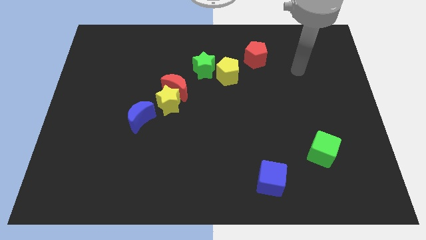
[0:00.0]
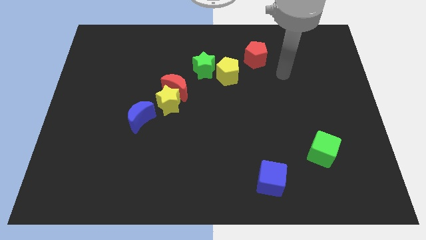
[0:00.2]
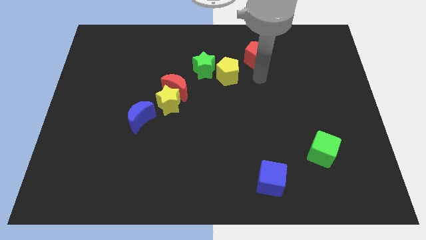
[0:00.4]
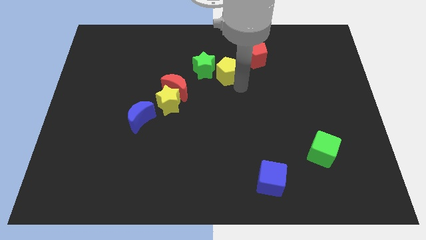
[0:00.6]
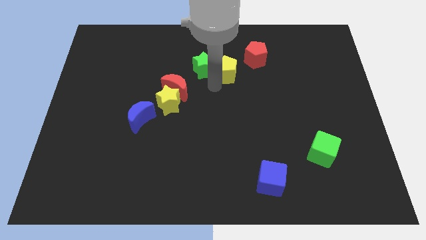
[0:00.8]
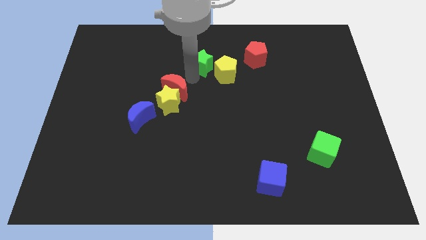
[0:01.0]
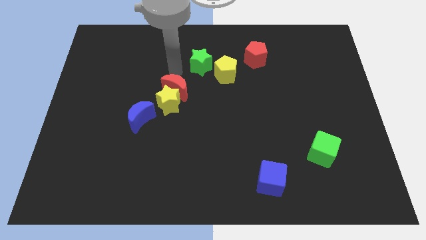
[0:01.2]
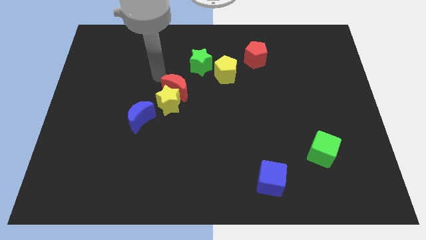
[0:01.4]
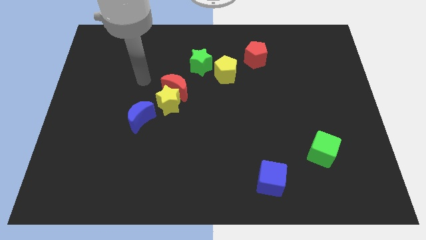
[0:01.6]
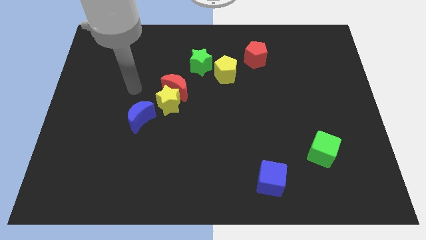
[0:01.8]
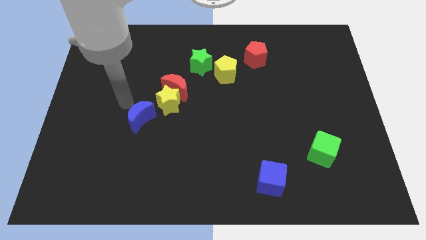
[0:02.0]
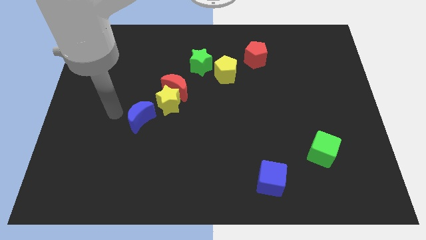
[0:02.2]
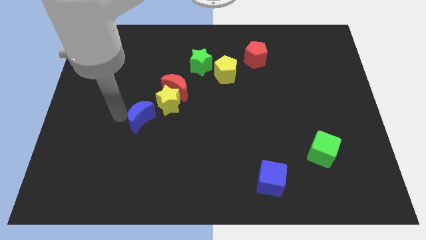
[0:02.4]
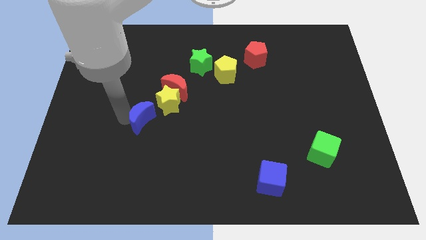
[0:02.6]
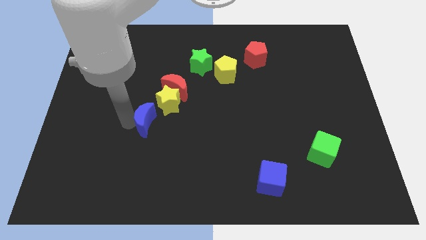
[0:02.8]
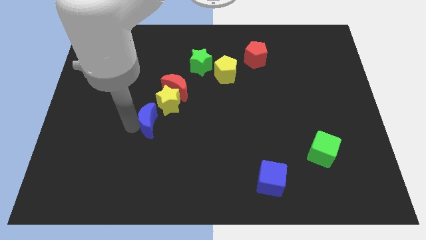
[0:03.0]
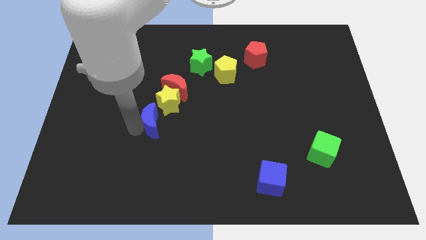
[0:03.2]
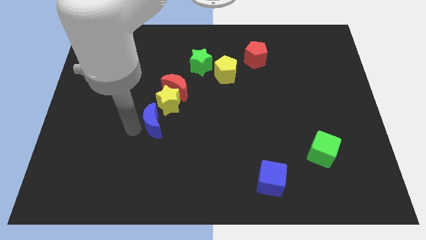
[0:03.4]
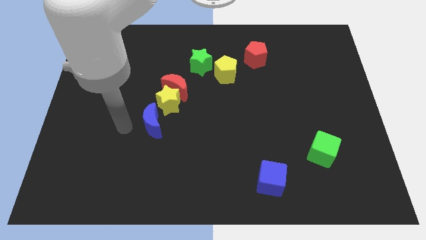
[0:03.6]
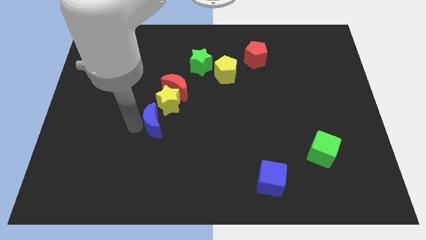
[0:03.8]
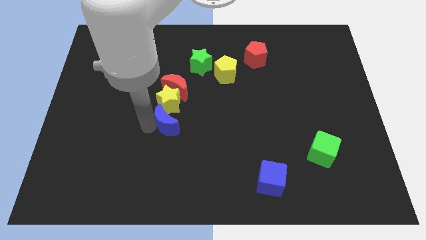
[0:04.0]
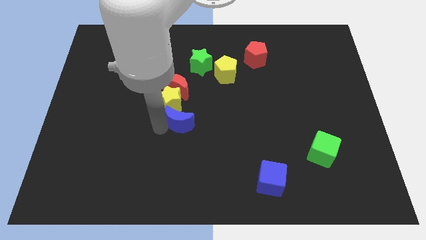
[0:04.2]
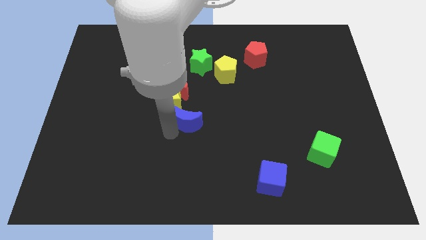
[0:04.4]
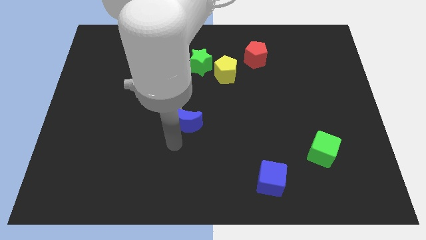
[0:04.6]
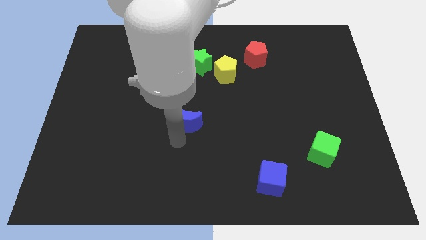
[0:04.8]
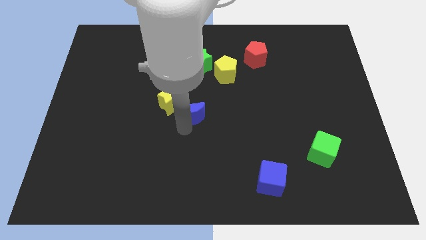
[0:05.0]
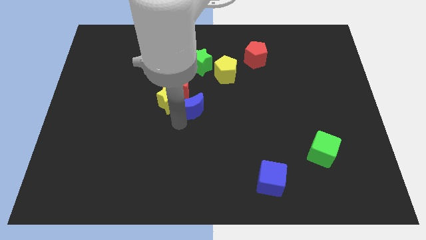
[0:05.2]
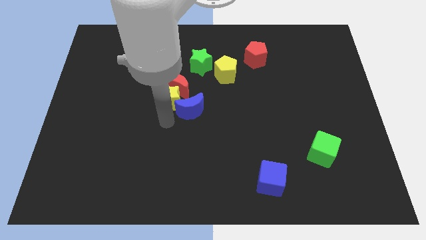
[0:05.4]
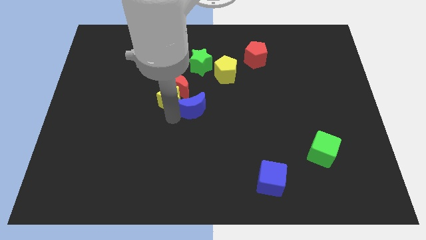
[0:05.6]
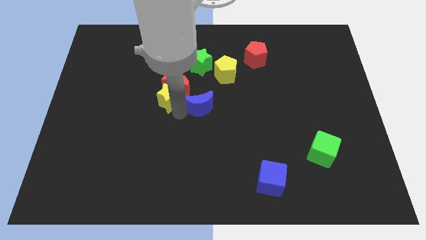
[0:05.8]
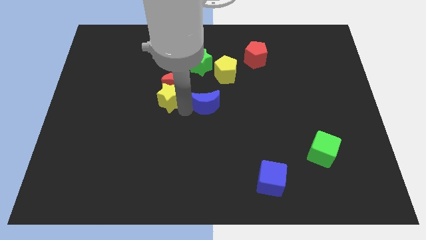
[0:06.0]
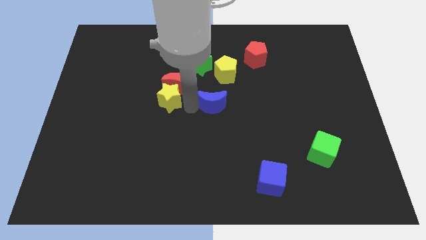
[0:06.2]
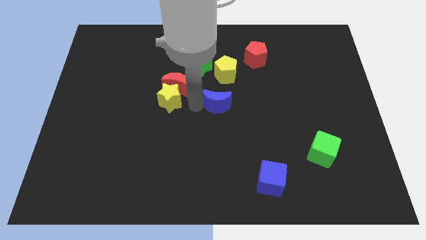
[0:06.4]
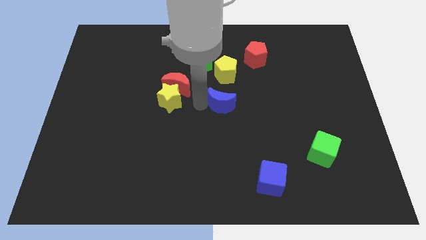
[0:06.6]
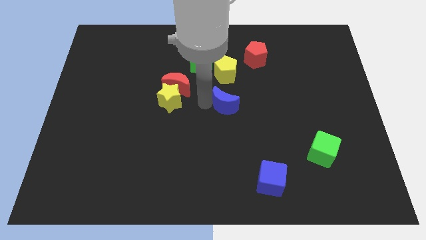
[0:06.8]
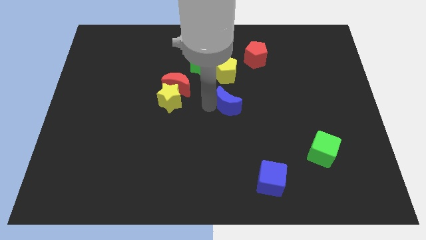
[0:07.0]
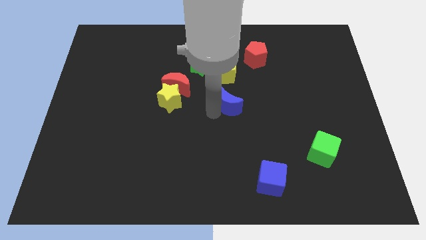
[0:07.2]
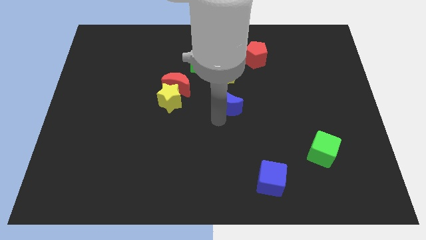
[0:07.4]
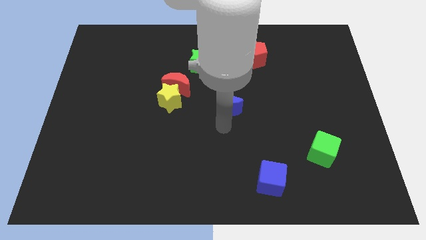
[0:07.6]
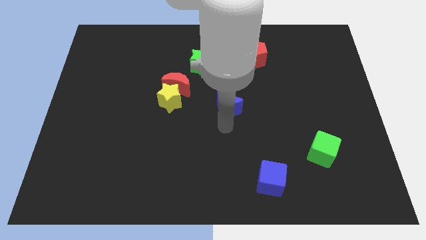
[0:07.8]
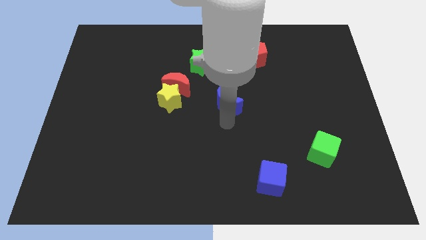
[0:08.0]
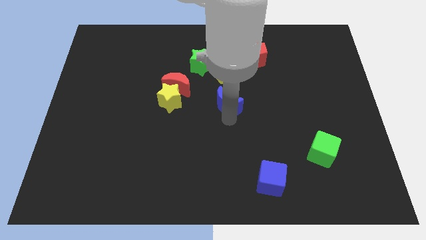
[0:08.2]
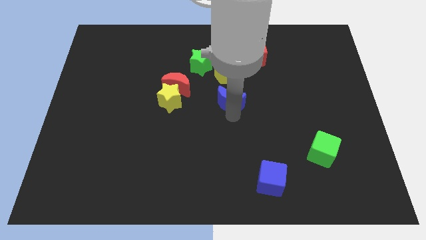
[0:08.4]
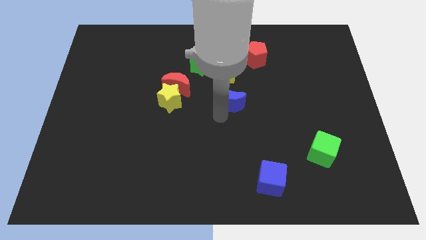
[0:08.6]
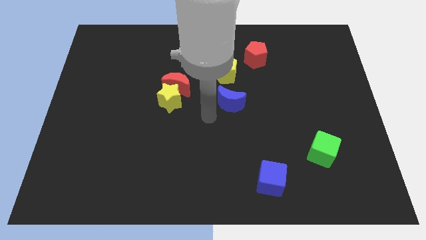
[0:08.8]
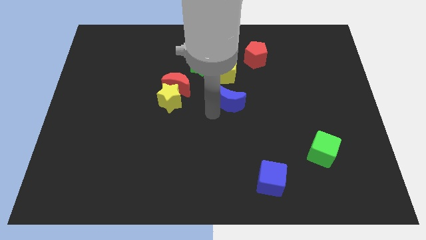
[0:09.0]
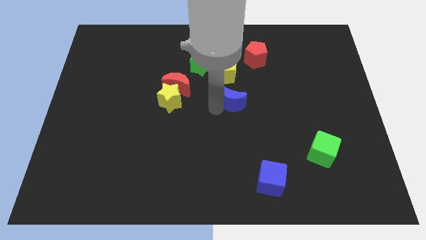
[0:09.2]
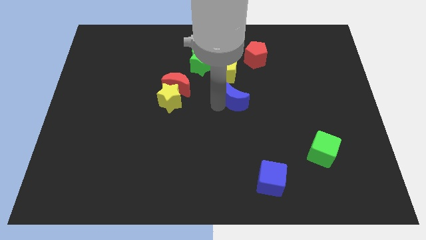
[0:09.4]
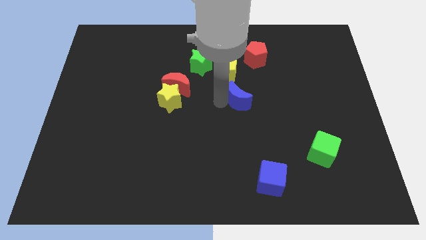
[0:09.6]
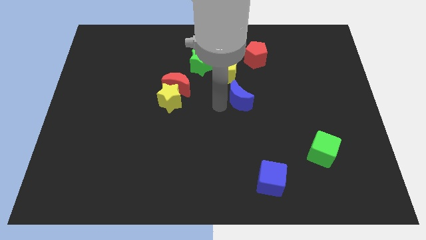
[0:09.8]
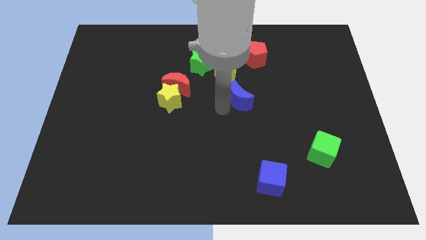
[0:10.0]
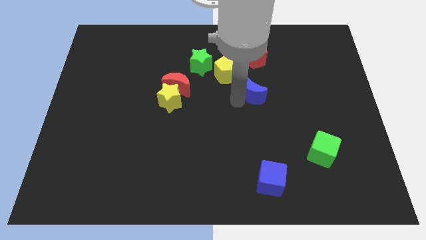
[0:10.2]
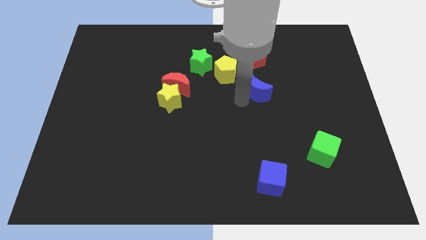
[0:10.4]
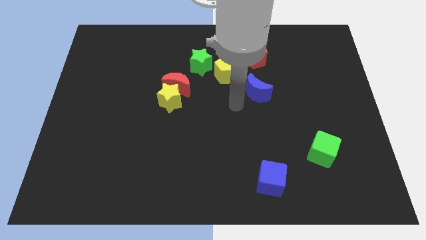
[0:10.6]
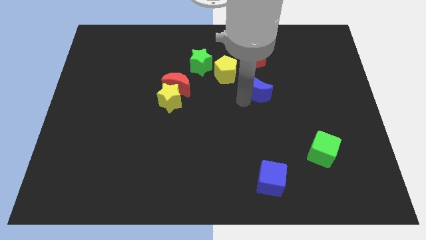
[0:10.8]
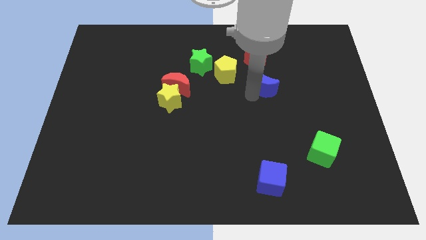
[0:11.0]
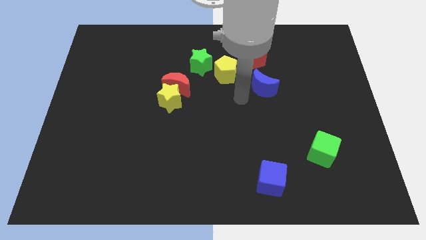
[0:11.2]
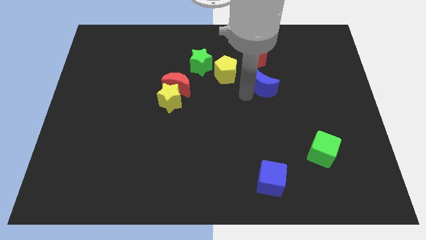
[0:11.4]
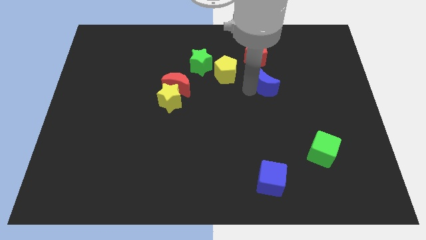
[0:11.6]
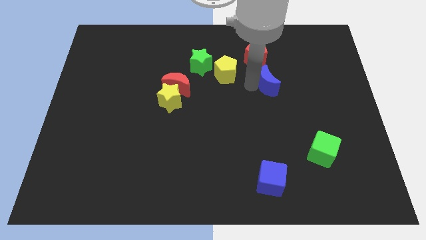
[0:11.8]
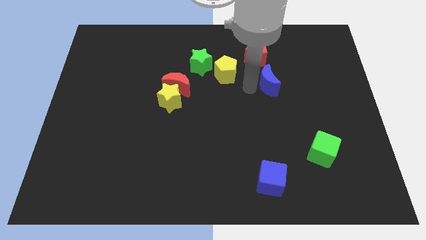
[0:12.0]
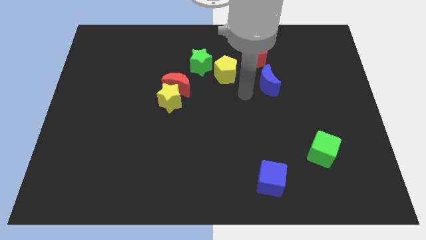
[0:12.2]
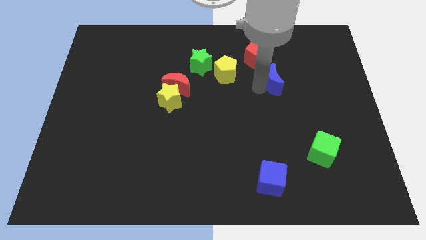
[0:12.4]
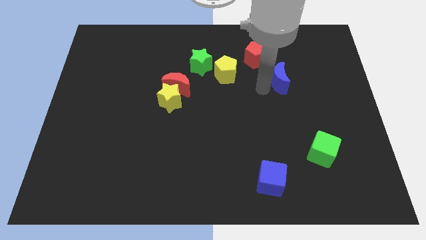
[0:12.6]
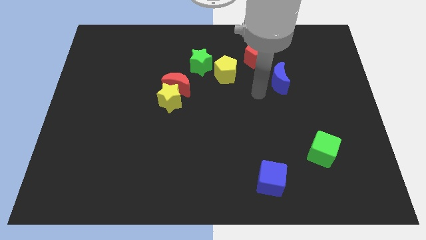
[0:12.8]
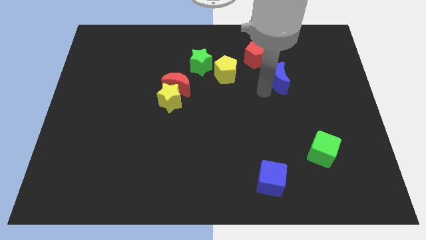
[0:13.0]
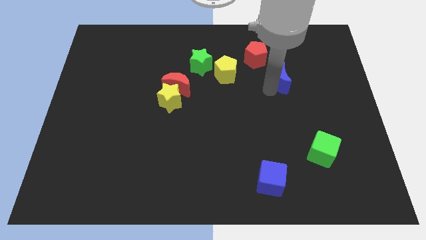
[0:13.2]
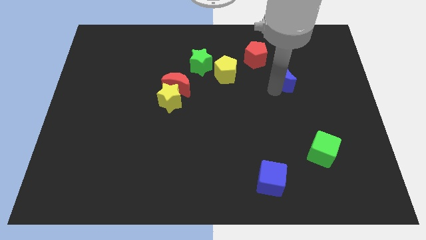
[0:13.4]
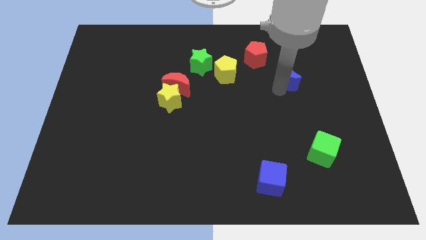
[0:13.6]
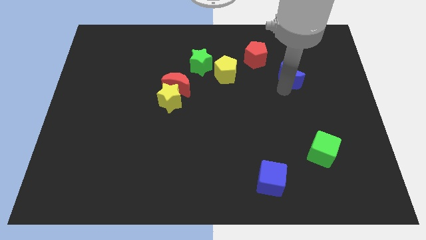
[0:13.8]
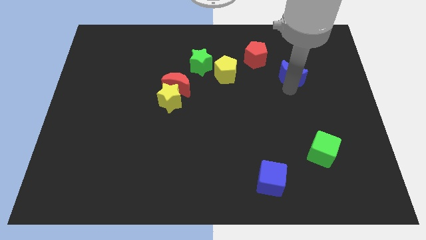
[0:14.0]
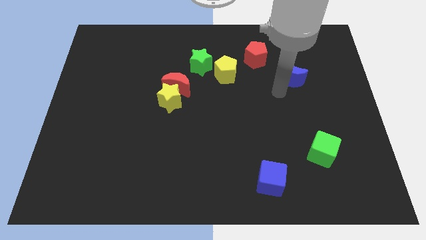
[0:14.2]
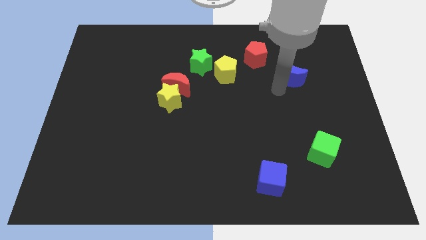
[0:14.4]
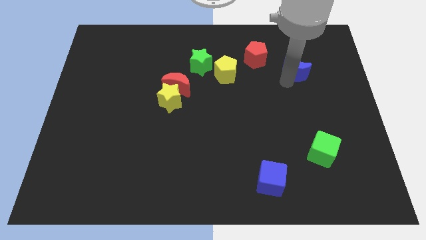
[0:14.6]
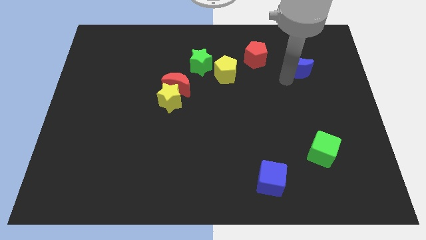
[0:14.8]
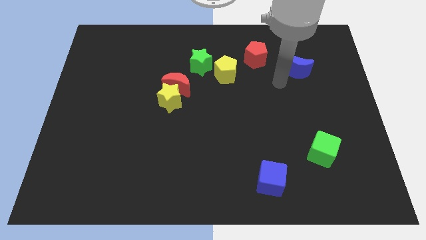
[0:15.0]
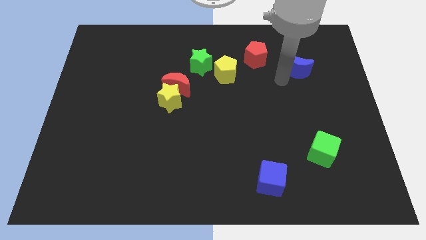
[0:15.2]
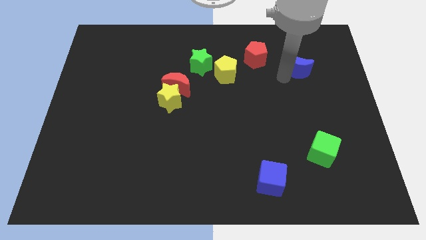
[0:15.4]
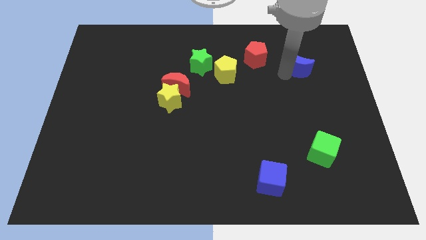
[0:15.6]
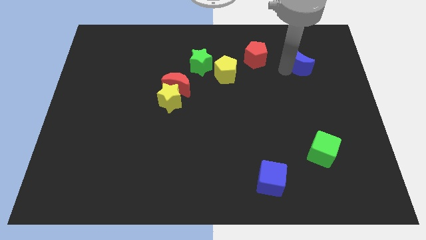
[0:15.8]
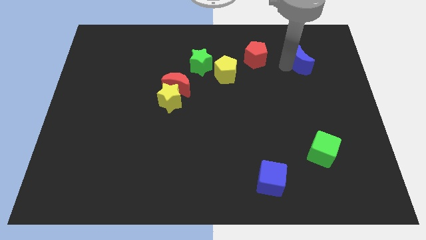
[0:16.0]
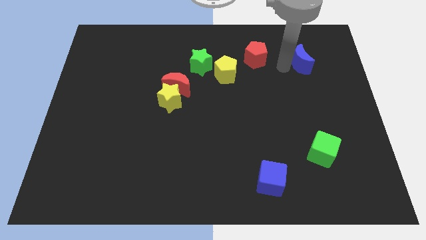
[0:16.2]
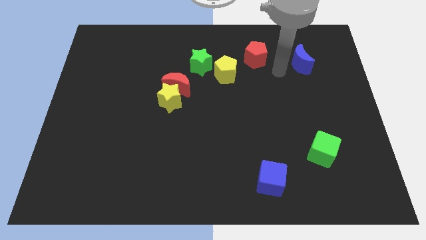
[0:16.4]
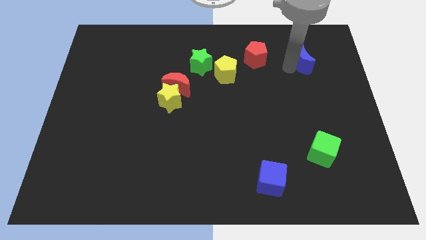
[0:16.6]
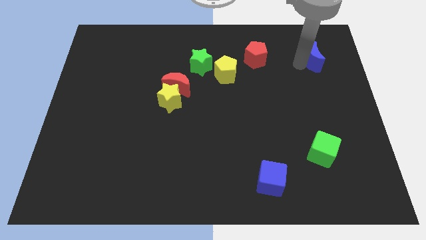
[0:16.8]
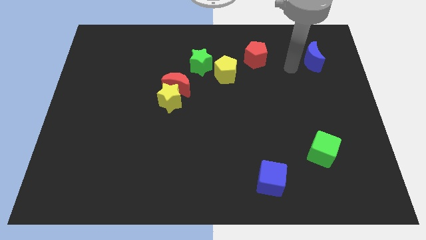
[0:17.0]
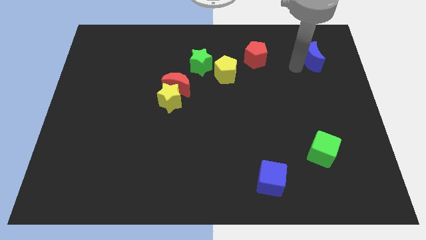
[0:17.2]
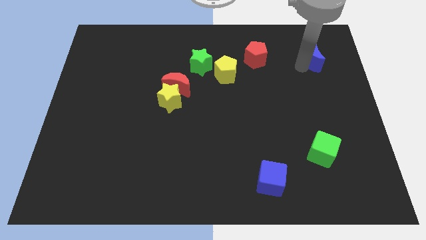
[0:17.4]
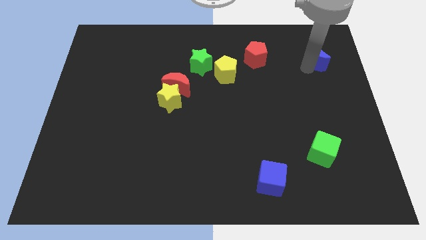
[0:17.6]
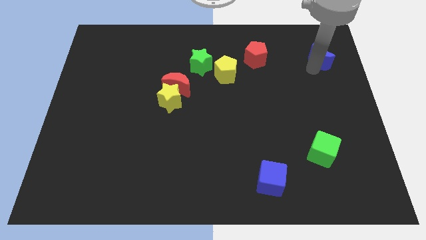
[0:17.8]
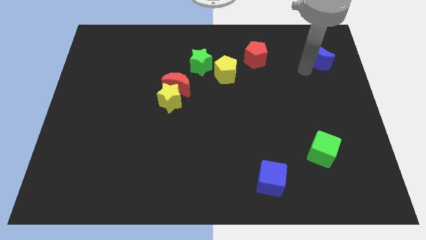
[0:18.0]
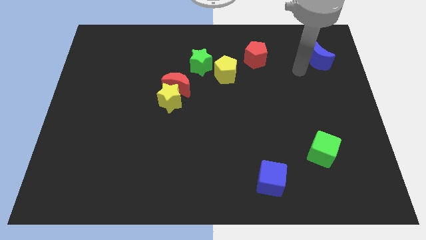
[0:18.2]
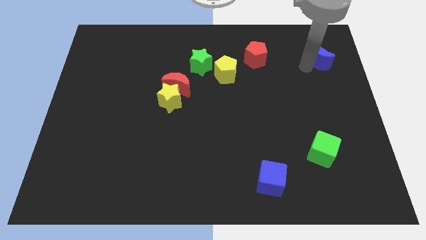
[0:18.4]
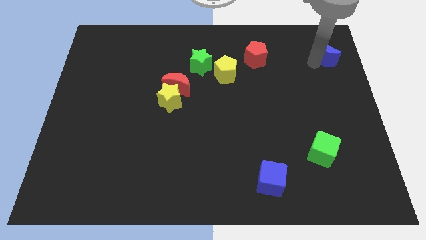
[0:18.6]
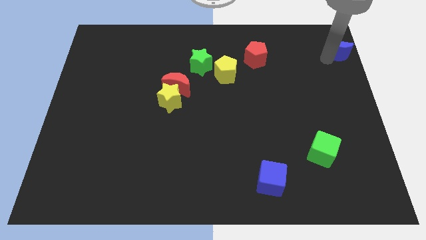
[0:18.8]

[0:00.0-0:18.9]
slide the blue moon to the top right of the board
